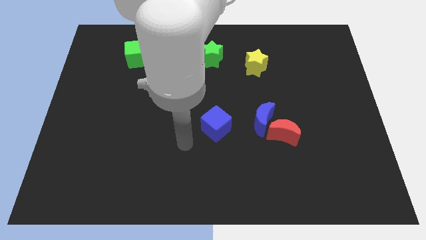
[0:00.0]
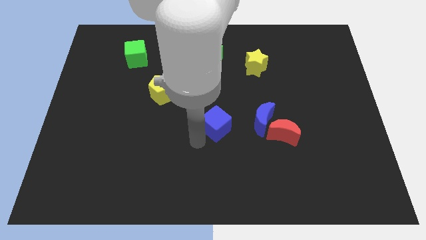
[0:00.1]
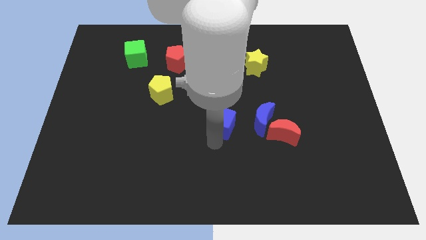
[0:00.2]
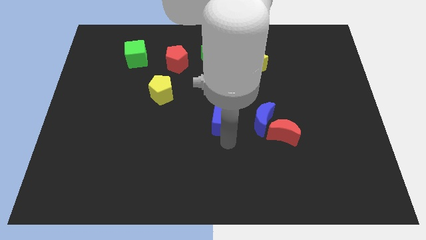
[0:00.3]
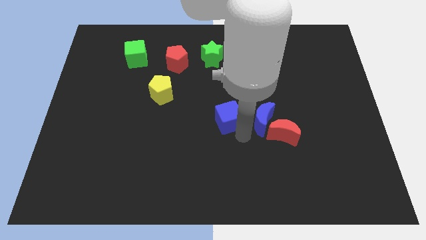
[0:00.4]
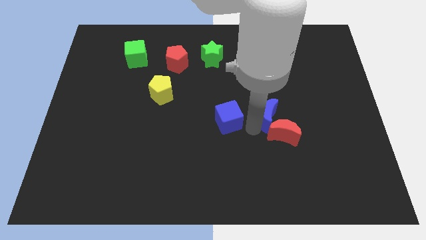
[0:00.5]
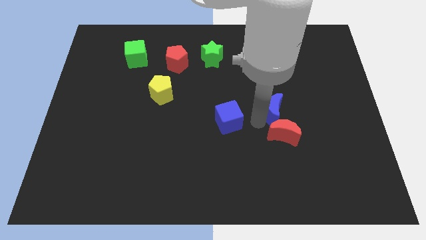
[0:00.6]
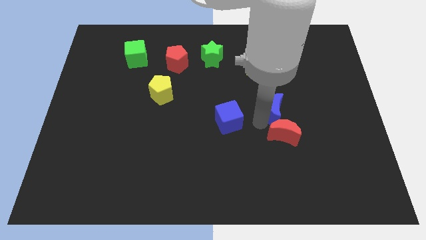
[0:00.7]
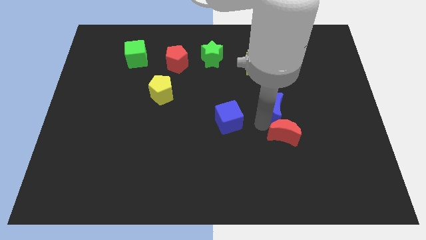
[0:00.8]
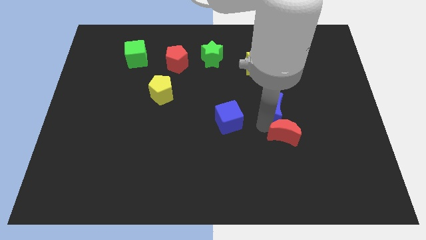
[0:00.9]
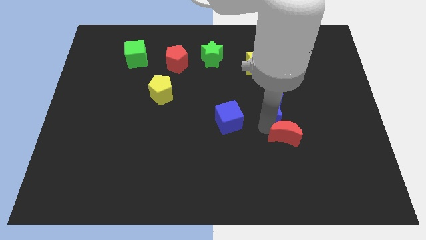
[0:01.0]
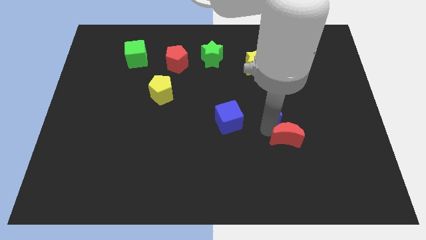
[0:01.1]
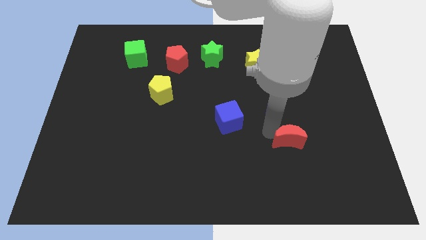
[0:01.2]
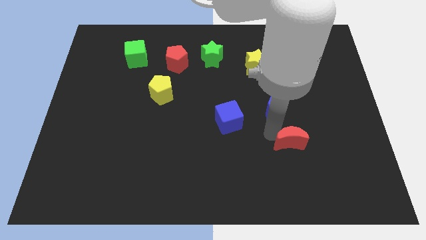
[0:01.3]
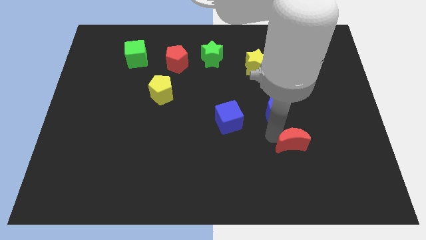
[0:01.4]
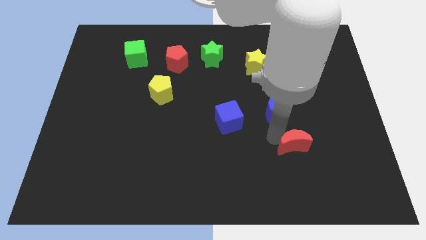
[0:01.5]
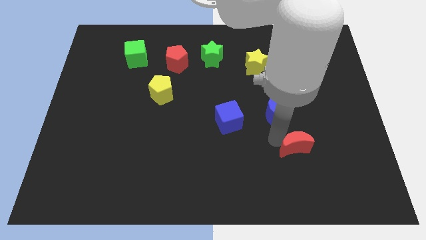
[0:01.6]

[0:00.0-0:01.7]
pull the red moon apart from the blue moon

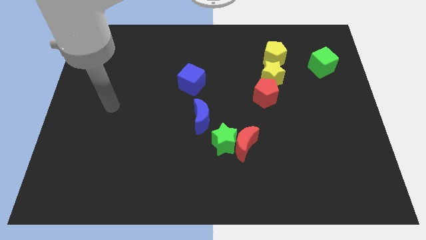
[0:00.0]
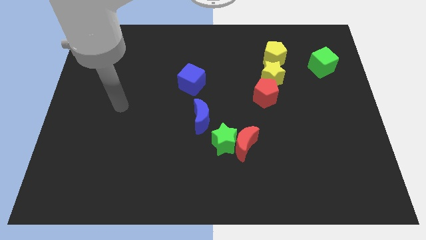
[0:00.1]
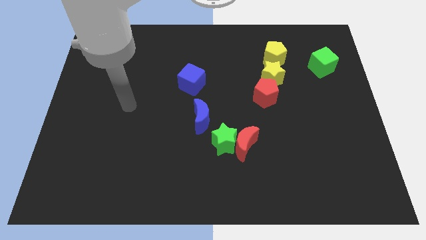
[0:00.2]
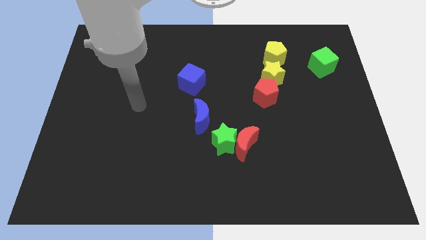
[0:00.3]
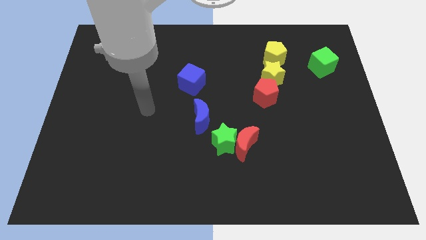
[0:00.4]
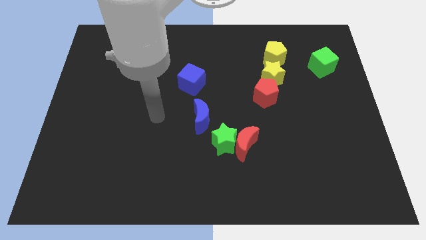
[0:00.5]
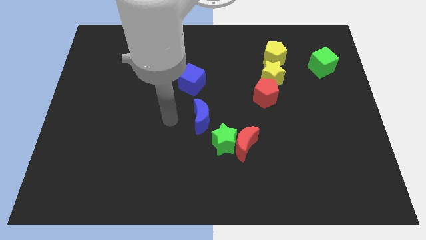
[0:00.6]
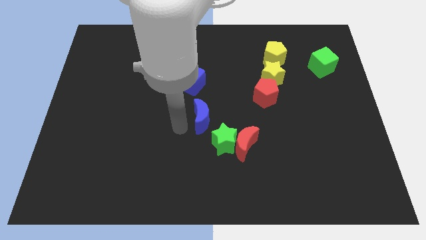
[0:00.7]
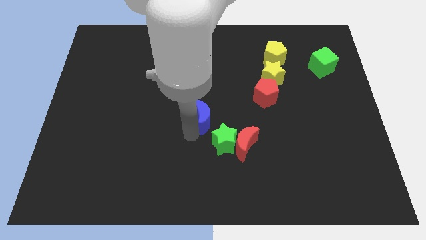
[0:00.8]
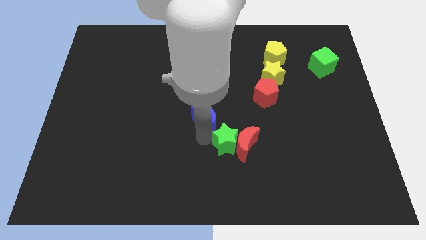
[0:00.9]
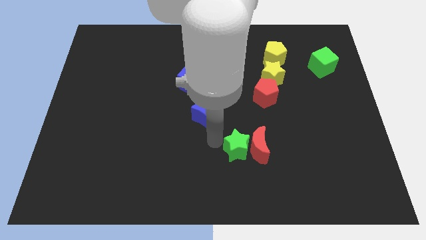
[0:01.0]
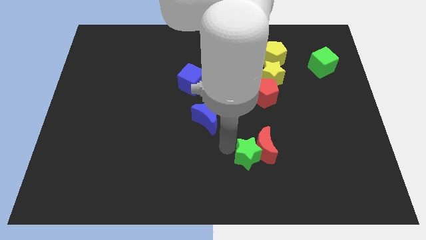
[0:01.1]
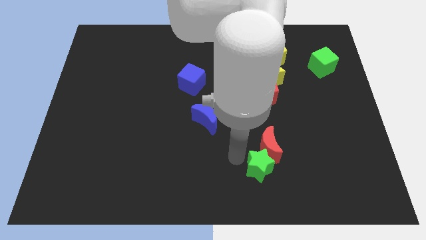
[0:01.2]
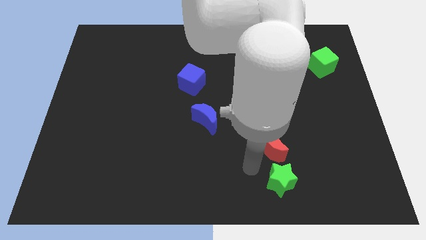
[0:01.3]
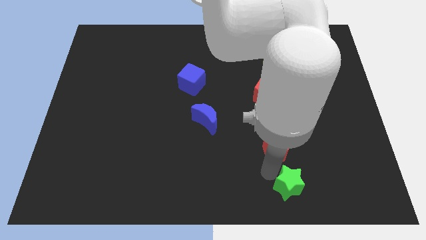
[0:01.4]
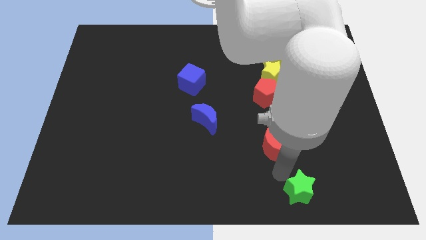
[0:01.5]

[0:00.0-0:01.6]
pull the red moon apart from the green star

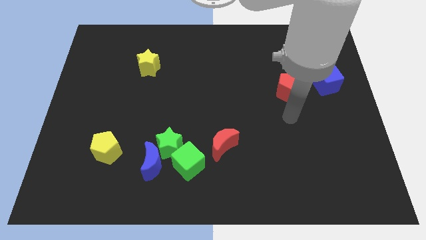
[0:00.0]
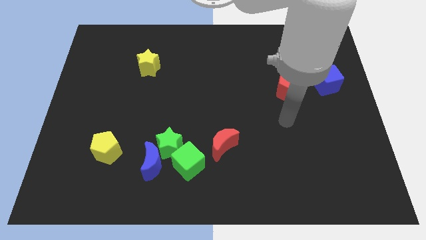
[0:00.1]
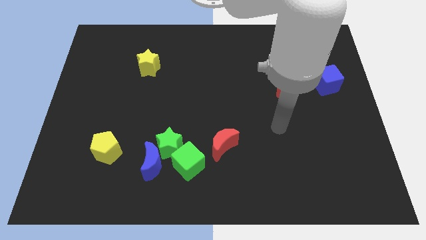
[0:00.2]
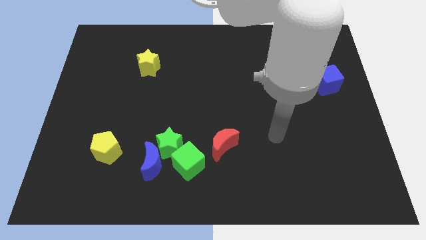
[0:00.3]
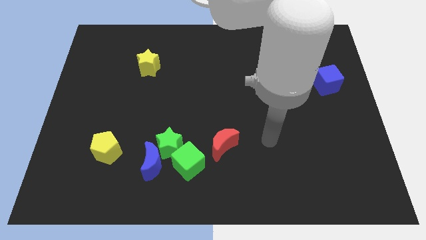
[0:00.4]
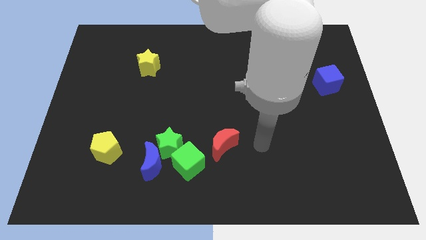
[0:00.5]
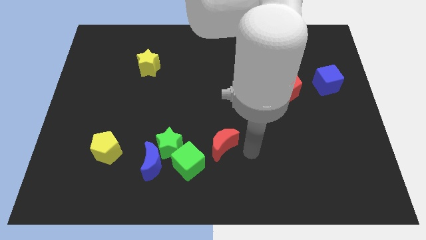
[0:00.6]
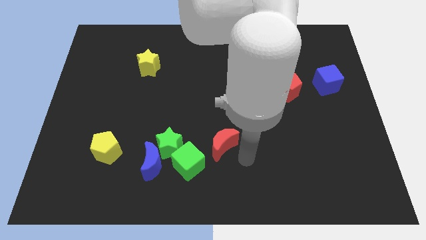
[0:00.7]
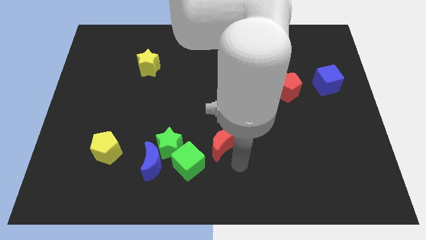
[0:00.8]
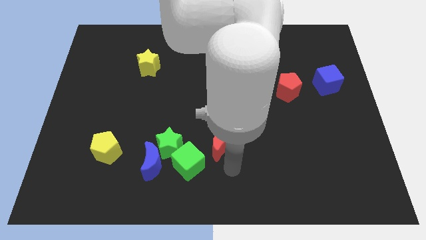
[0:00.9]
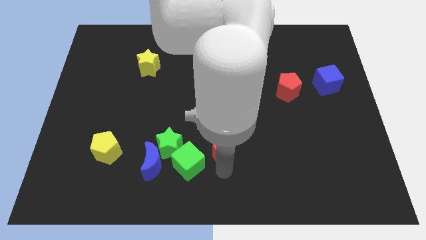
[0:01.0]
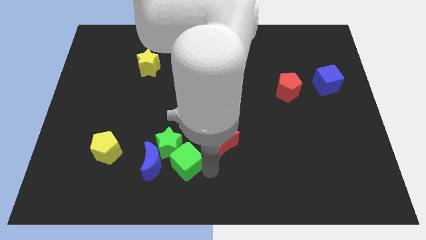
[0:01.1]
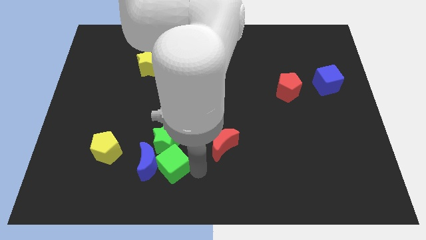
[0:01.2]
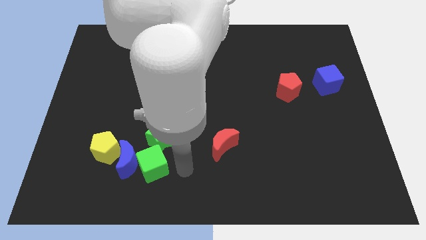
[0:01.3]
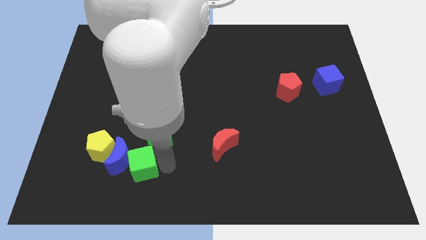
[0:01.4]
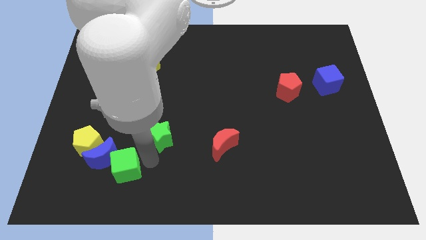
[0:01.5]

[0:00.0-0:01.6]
separate the green star from the blue moon and green cube

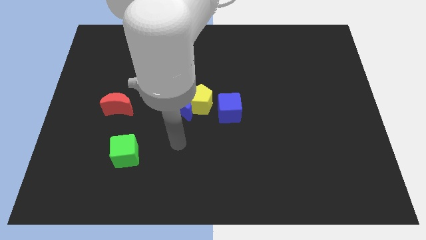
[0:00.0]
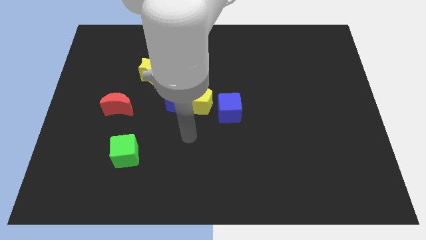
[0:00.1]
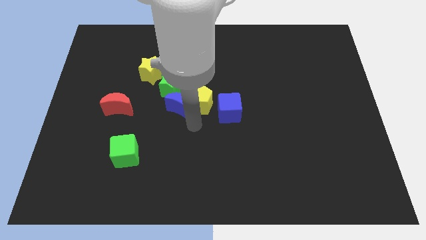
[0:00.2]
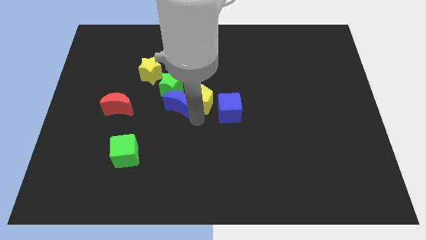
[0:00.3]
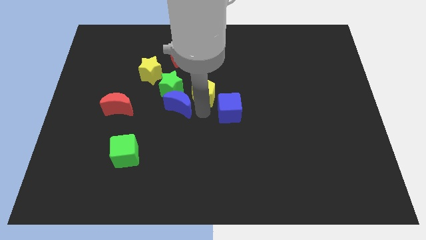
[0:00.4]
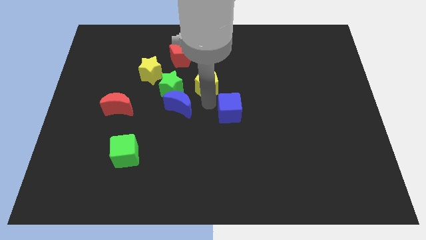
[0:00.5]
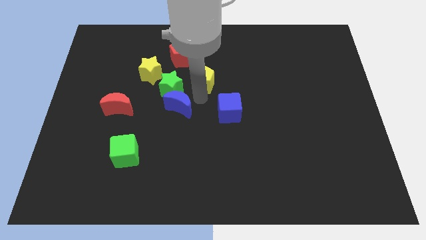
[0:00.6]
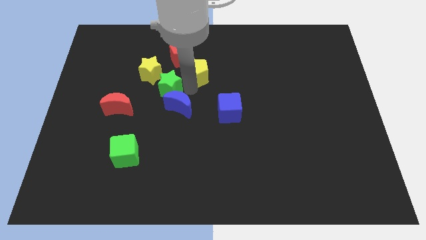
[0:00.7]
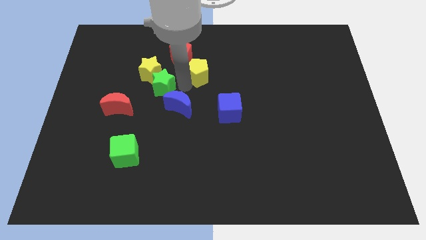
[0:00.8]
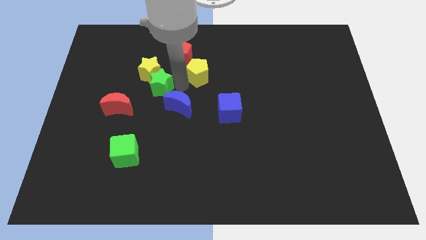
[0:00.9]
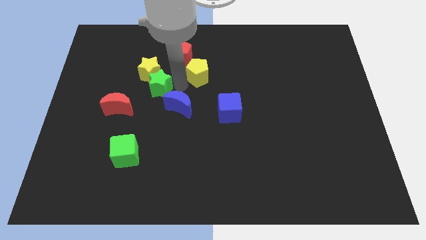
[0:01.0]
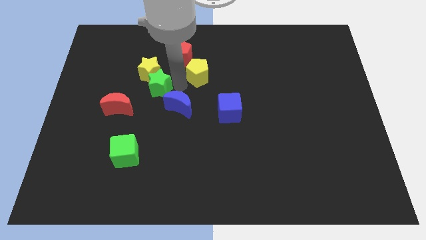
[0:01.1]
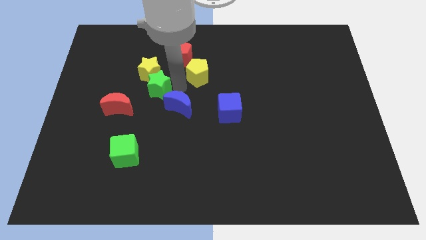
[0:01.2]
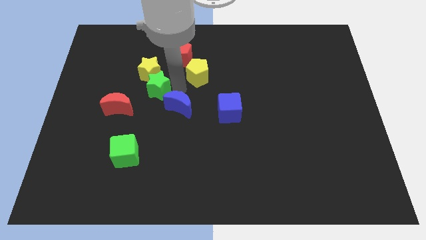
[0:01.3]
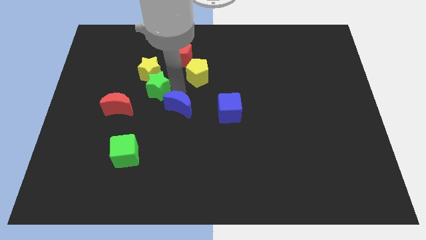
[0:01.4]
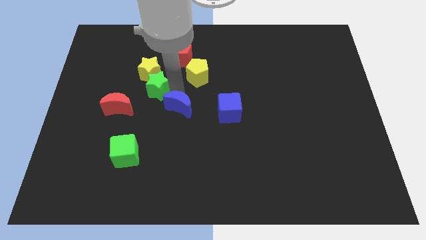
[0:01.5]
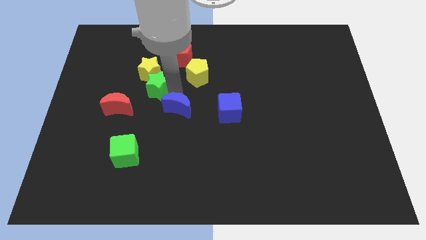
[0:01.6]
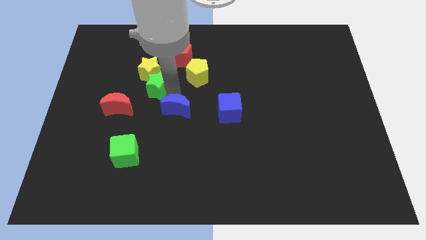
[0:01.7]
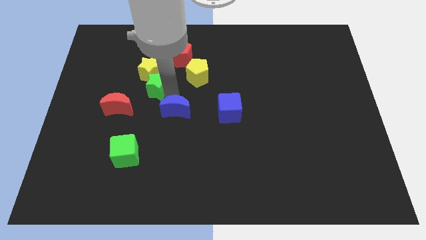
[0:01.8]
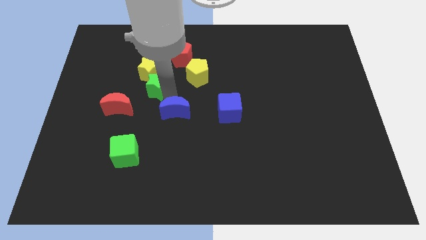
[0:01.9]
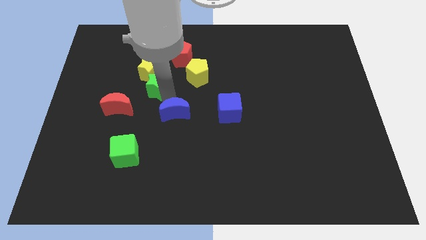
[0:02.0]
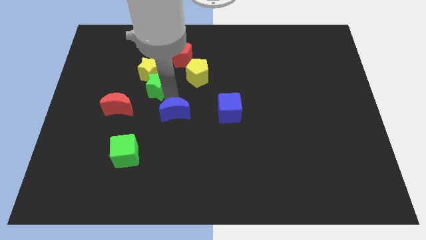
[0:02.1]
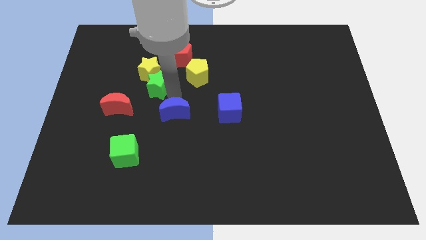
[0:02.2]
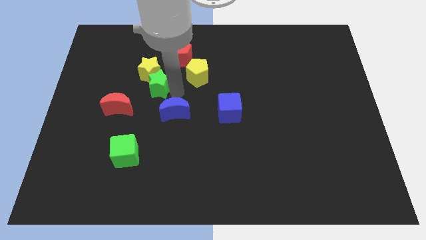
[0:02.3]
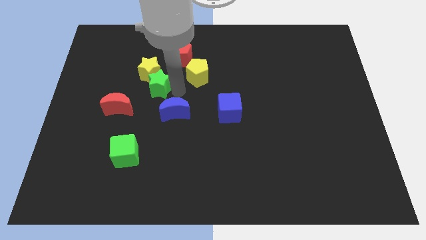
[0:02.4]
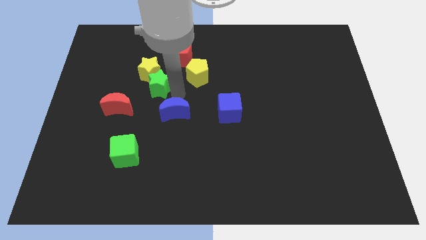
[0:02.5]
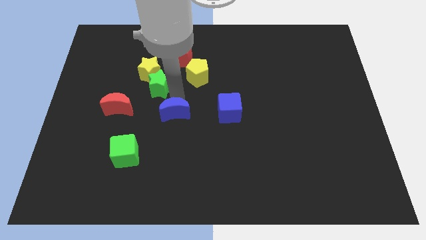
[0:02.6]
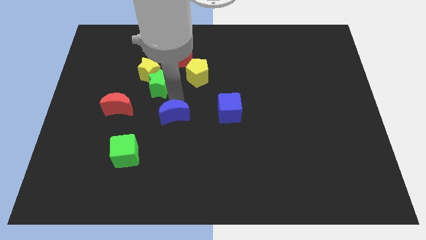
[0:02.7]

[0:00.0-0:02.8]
move the blue moon away from the yellow pentagon and green star

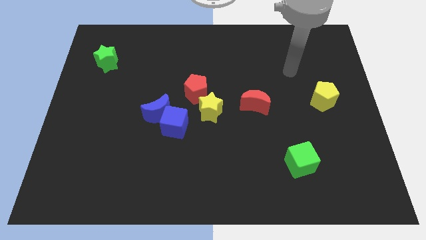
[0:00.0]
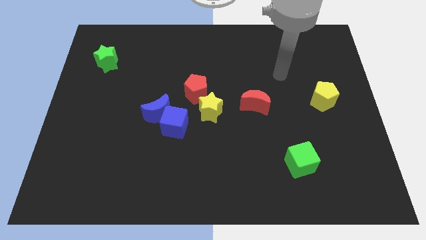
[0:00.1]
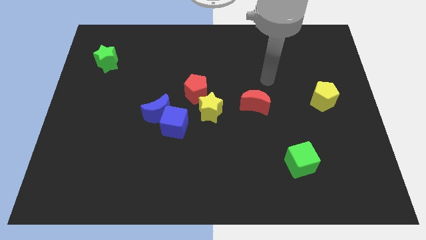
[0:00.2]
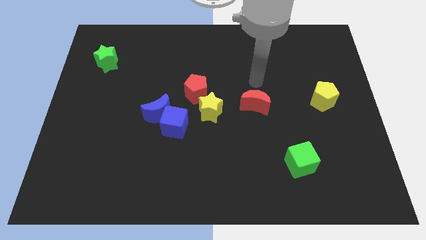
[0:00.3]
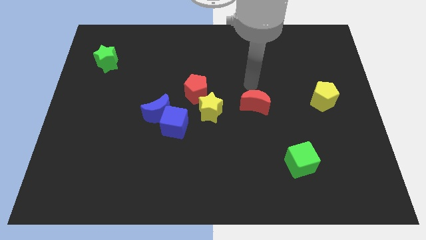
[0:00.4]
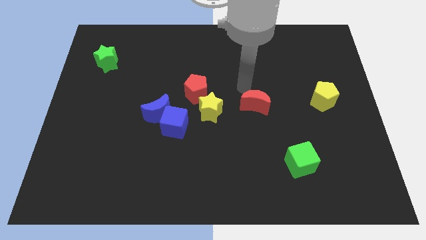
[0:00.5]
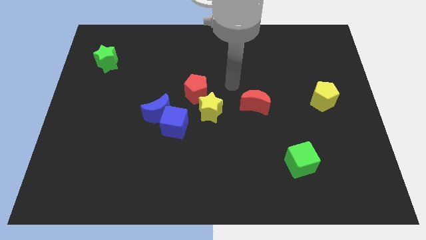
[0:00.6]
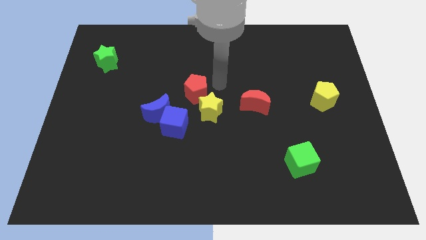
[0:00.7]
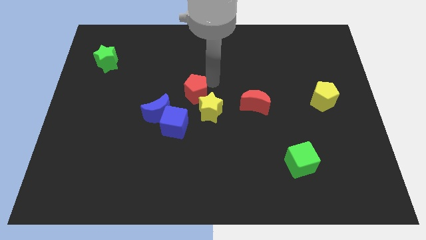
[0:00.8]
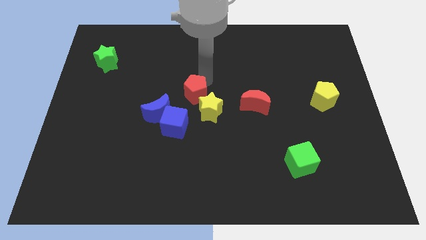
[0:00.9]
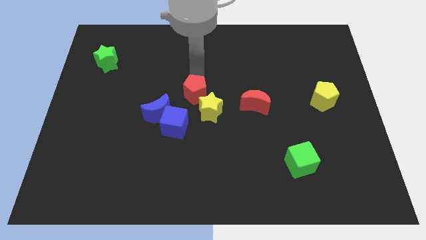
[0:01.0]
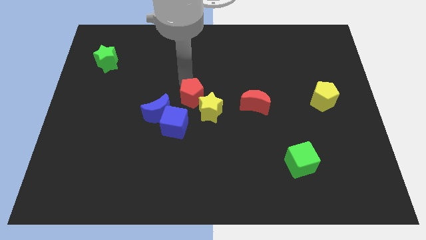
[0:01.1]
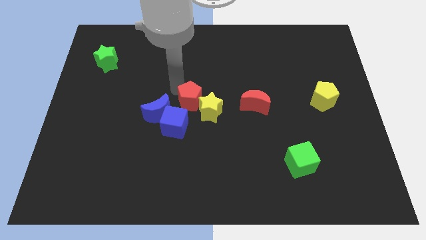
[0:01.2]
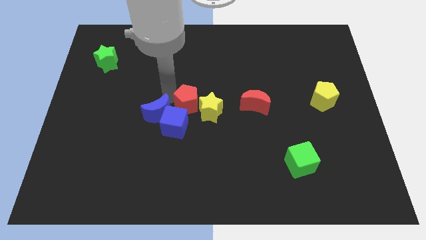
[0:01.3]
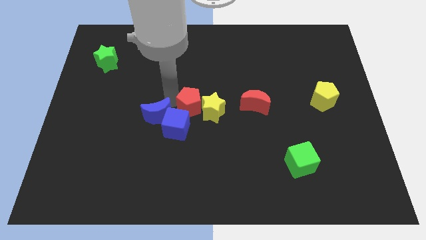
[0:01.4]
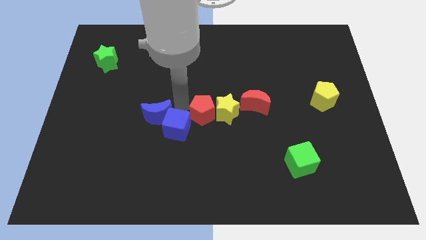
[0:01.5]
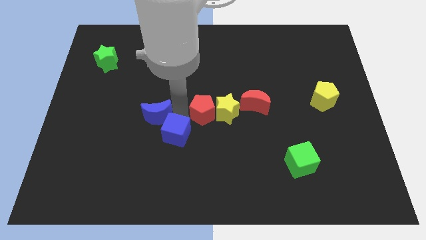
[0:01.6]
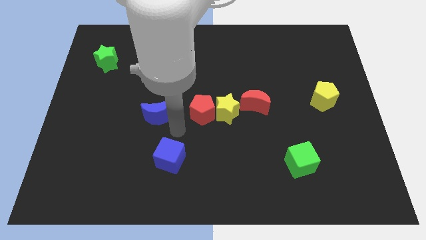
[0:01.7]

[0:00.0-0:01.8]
move the blue moon away from the blue cube
